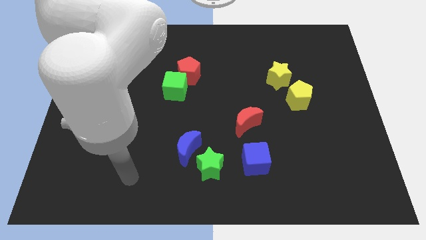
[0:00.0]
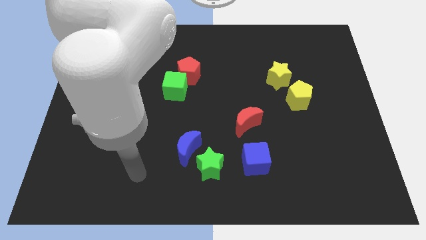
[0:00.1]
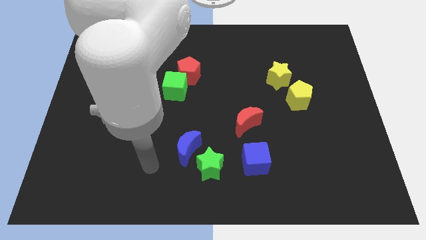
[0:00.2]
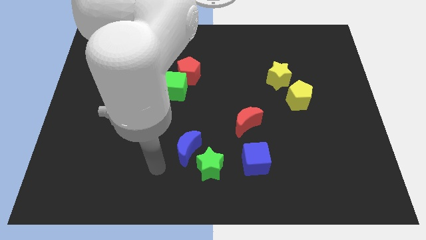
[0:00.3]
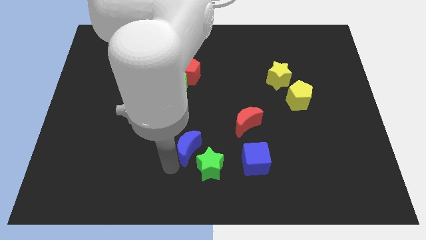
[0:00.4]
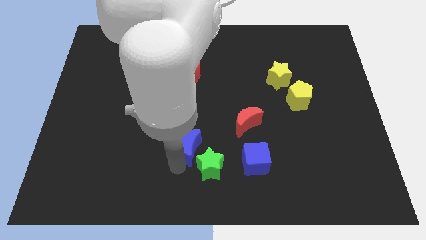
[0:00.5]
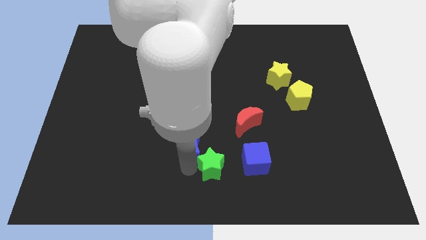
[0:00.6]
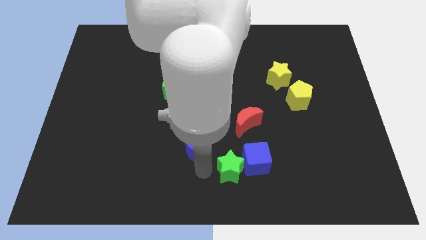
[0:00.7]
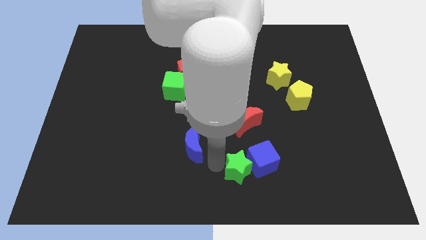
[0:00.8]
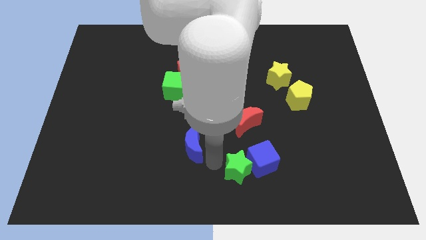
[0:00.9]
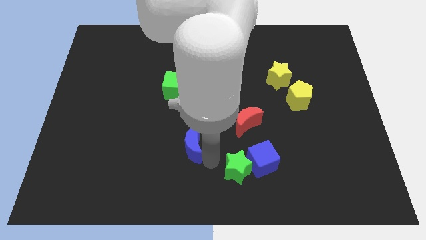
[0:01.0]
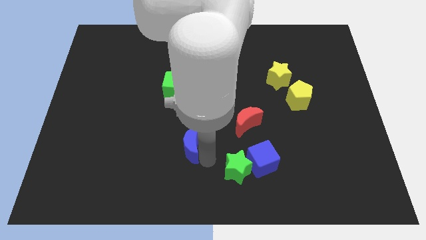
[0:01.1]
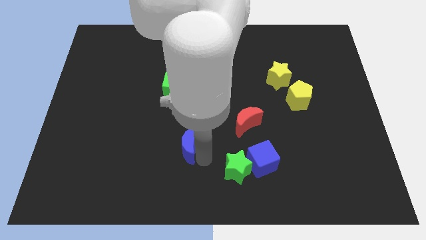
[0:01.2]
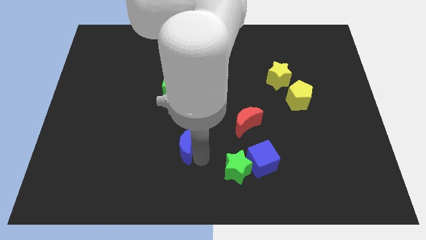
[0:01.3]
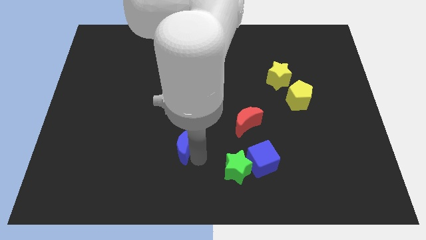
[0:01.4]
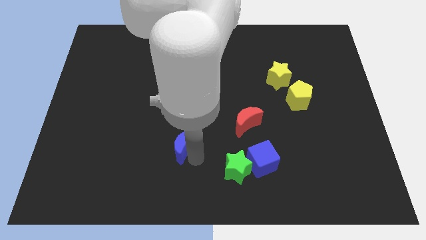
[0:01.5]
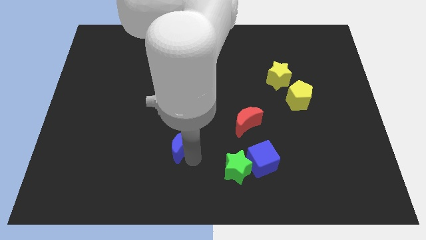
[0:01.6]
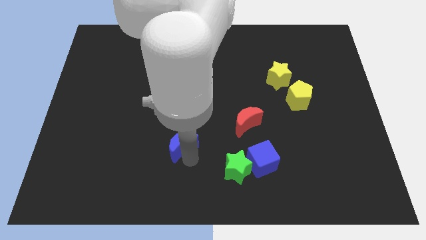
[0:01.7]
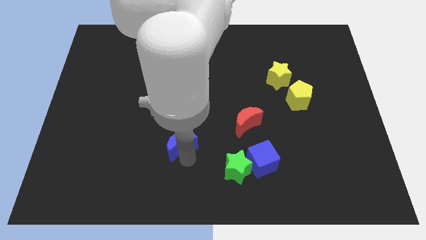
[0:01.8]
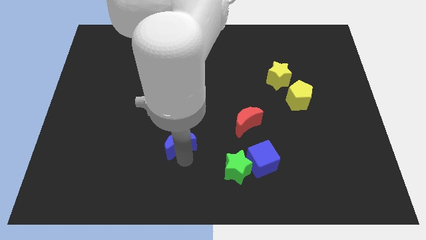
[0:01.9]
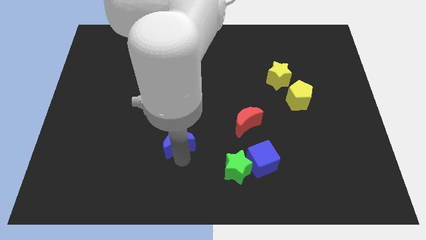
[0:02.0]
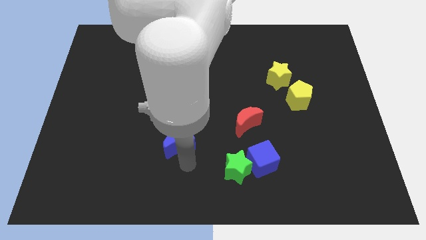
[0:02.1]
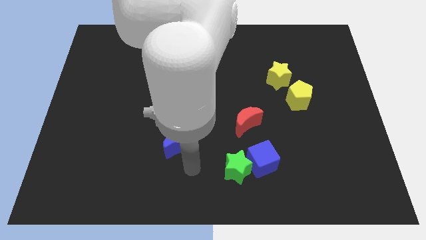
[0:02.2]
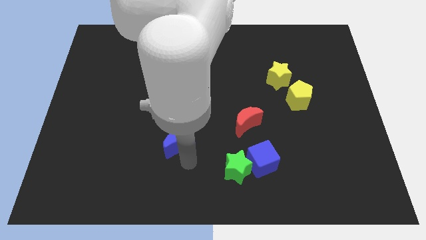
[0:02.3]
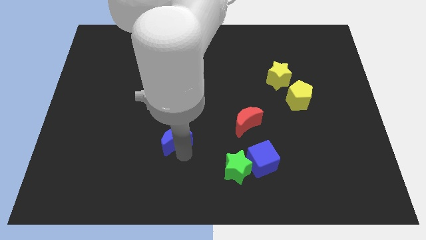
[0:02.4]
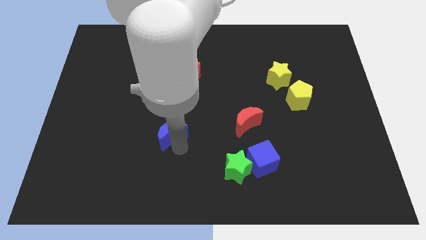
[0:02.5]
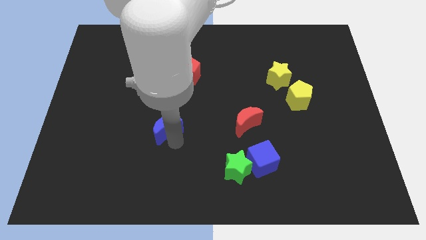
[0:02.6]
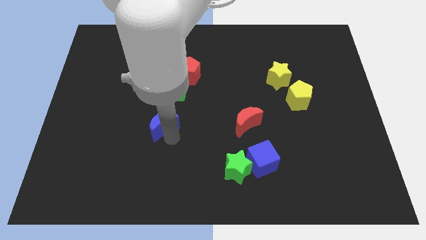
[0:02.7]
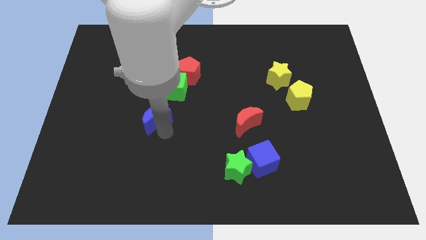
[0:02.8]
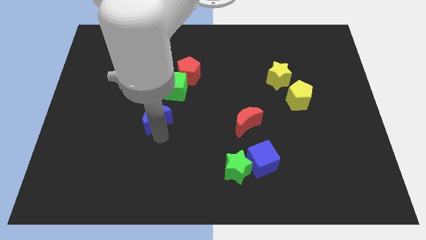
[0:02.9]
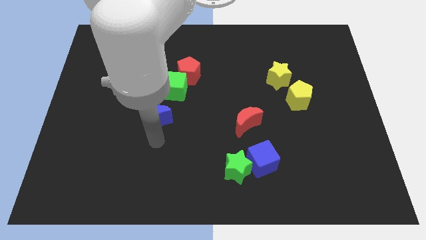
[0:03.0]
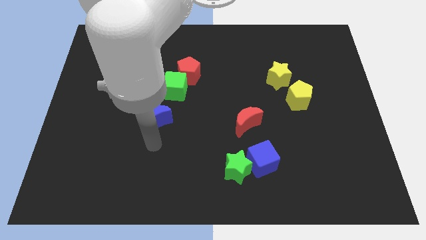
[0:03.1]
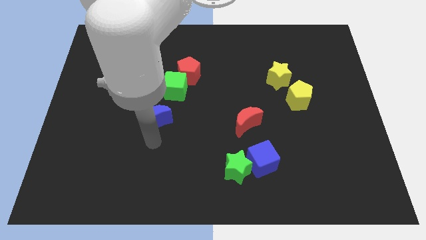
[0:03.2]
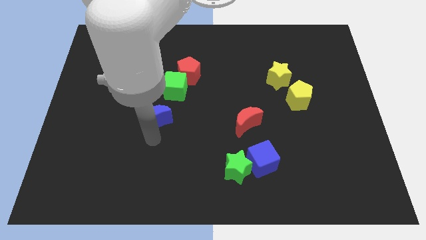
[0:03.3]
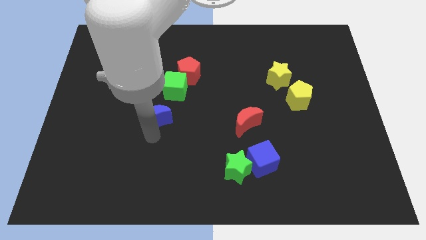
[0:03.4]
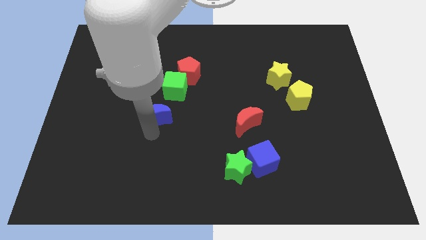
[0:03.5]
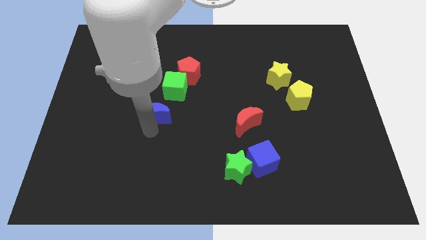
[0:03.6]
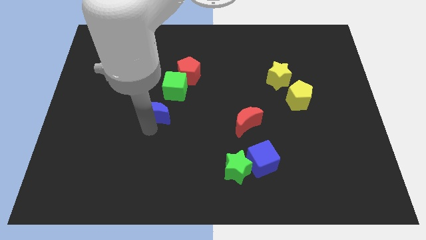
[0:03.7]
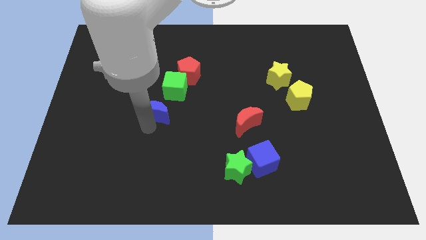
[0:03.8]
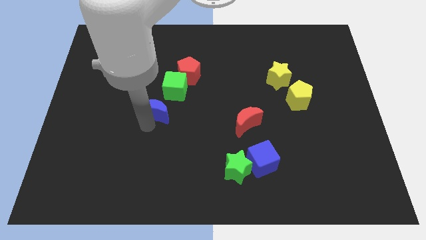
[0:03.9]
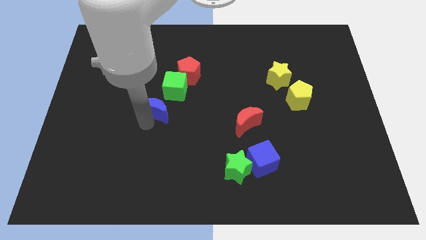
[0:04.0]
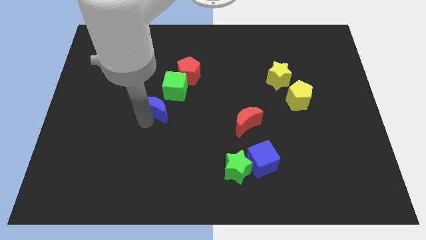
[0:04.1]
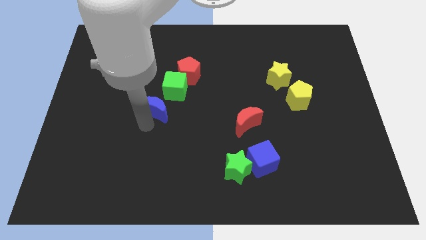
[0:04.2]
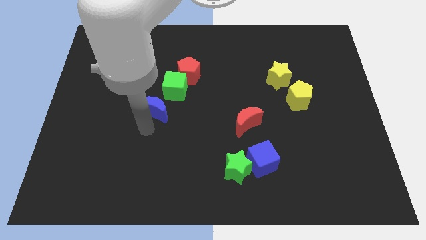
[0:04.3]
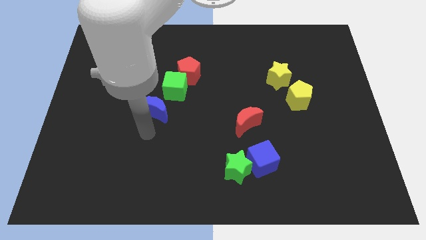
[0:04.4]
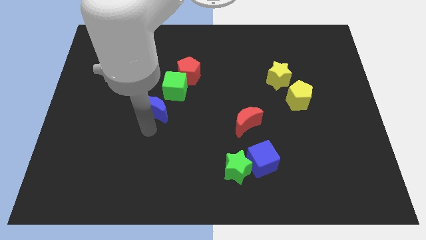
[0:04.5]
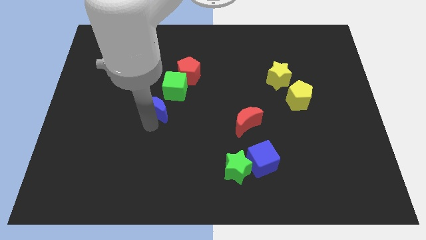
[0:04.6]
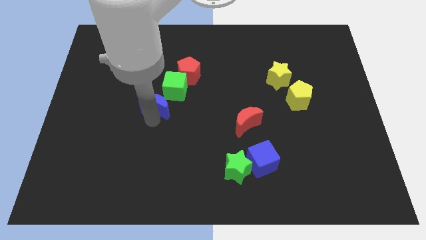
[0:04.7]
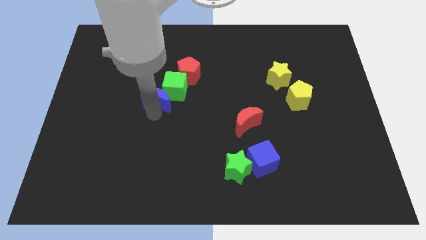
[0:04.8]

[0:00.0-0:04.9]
move the blue moon diagonally down and to the left of the red pentagon

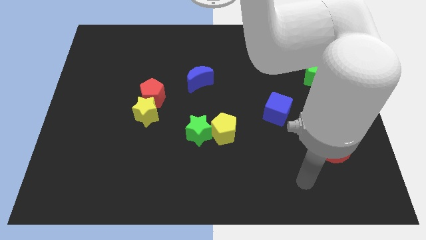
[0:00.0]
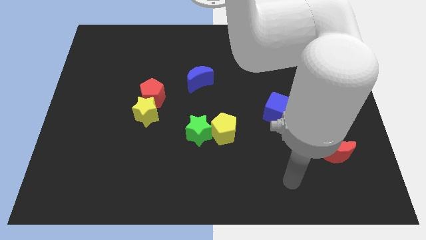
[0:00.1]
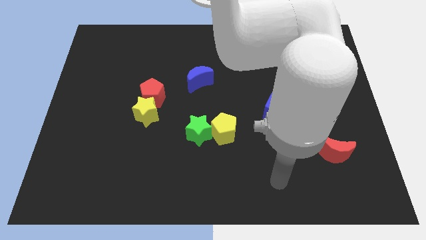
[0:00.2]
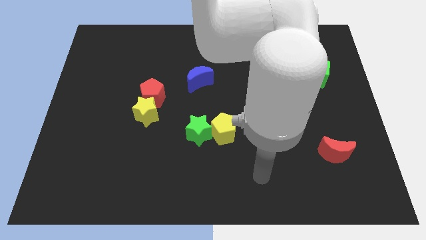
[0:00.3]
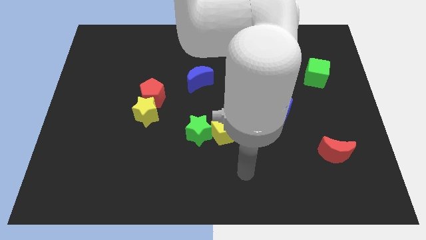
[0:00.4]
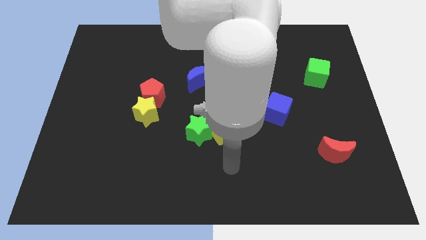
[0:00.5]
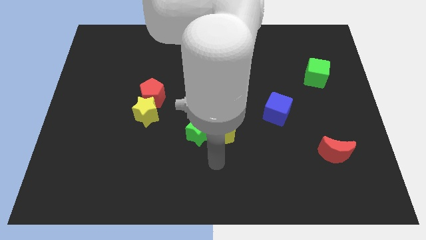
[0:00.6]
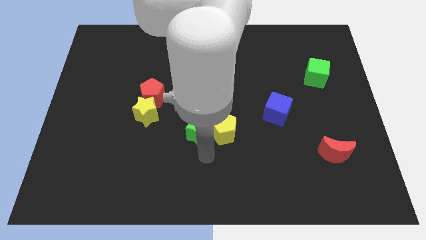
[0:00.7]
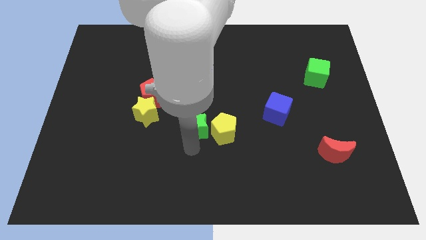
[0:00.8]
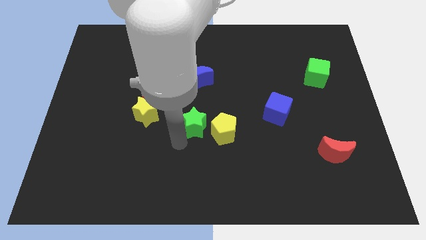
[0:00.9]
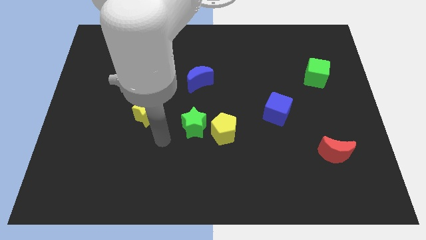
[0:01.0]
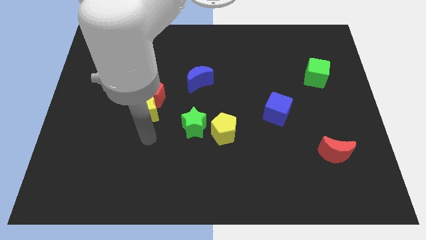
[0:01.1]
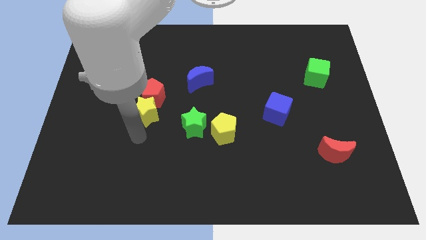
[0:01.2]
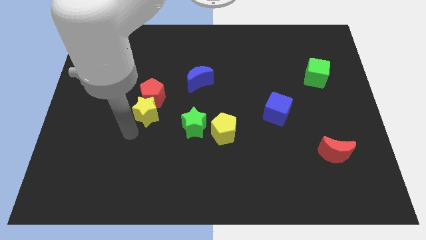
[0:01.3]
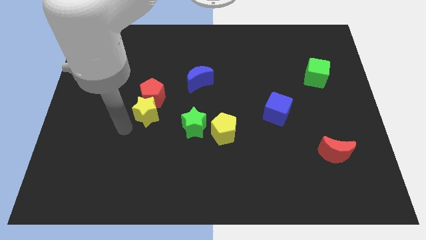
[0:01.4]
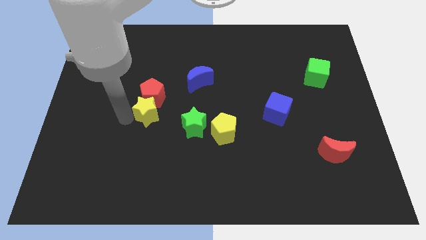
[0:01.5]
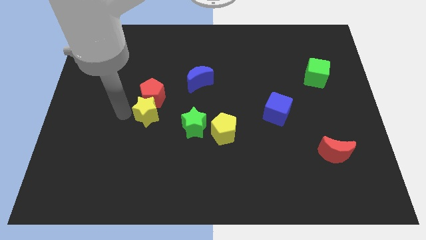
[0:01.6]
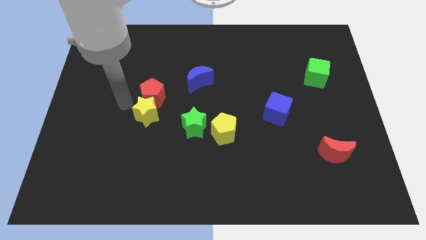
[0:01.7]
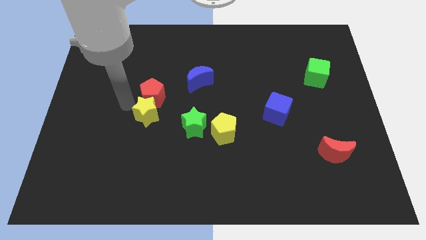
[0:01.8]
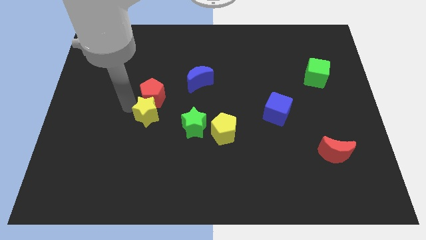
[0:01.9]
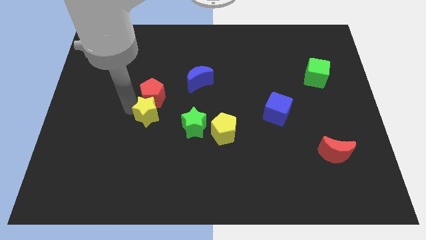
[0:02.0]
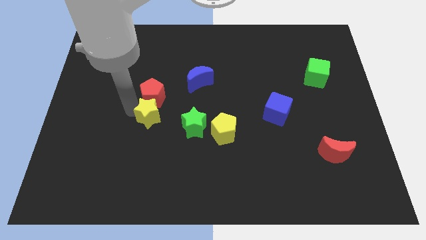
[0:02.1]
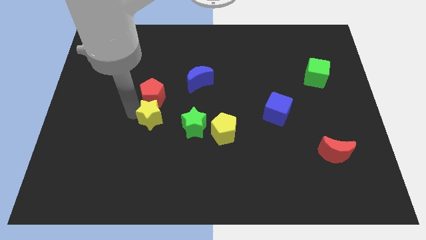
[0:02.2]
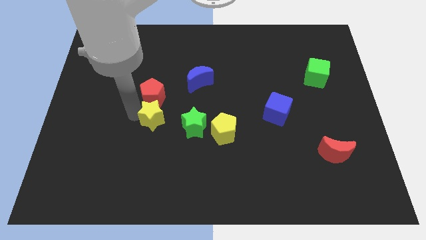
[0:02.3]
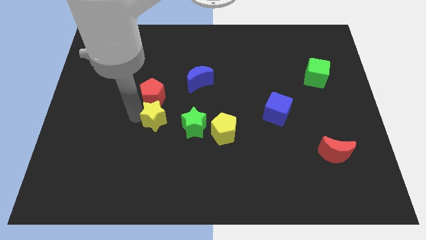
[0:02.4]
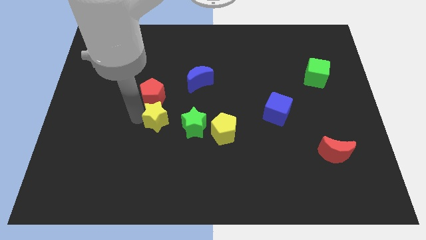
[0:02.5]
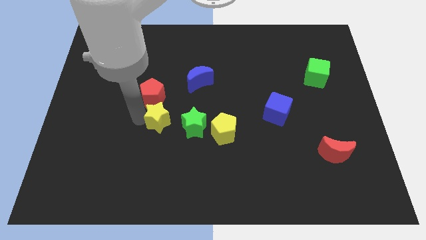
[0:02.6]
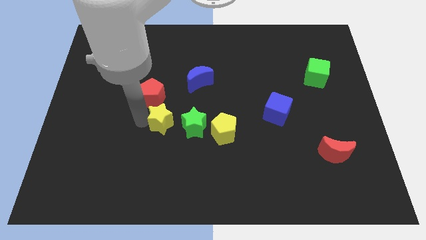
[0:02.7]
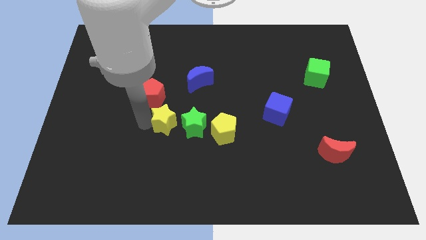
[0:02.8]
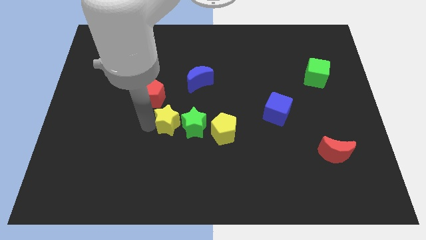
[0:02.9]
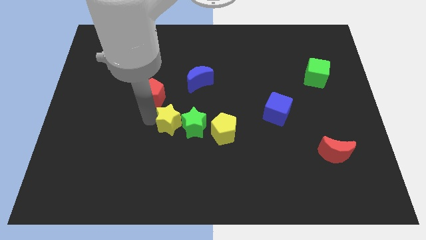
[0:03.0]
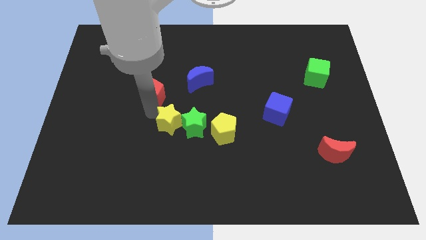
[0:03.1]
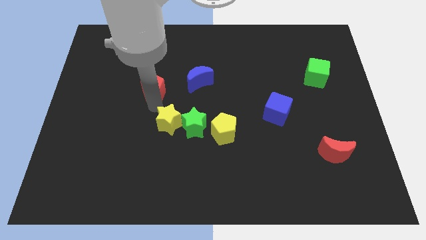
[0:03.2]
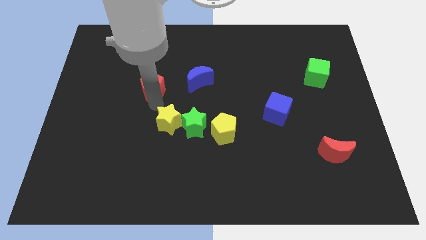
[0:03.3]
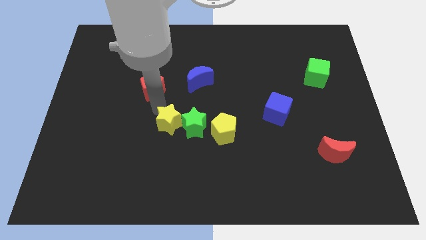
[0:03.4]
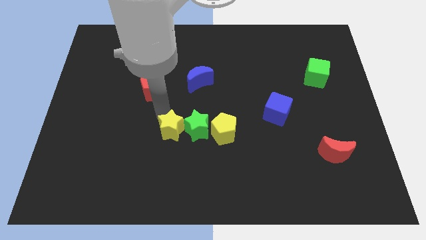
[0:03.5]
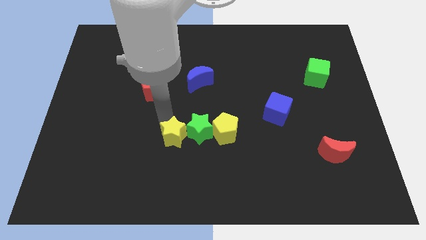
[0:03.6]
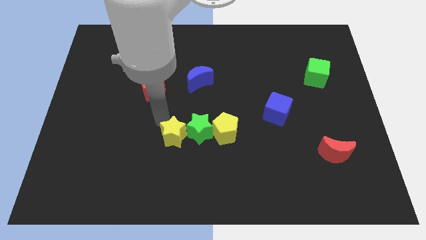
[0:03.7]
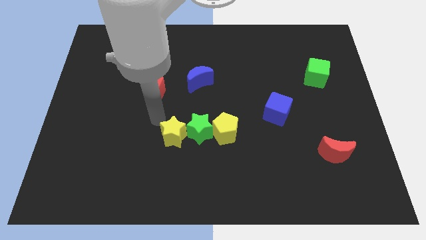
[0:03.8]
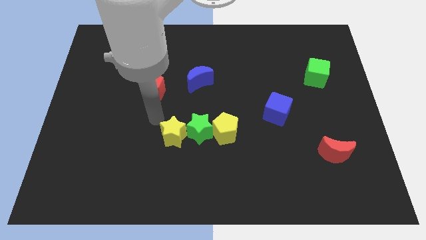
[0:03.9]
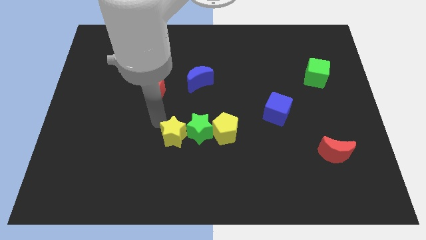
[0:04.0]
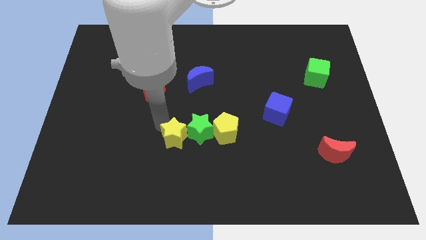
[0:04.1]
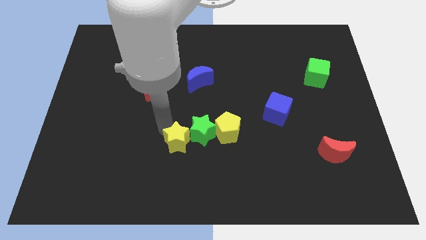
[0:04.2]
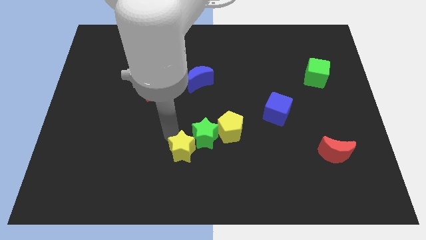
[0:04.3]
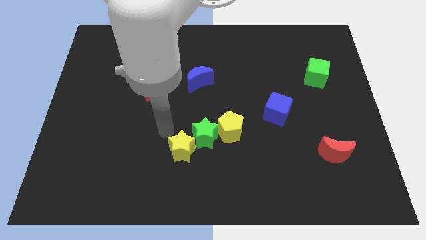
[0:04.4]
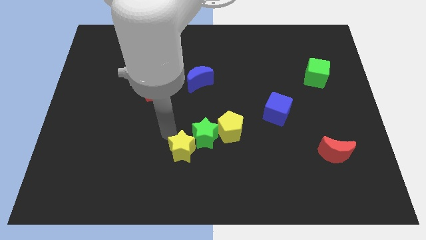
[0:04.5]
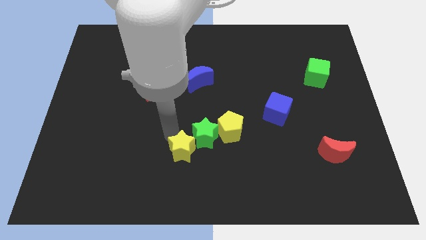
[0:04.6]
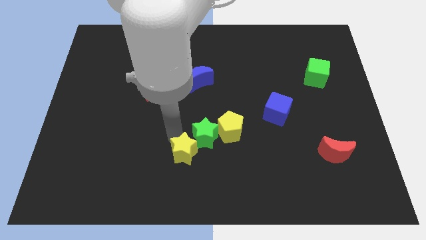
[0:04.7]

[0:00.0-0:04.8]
push the yellow star to the bottom of the green star
